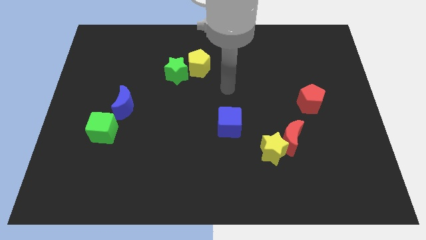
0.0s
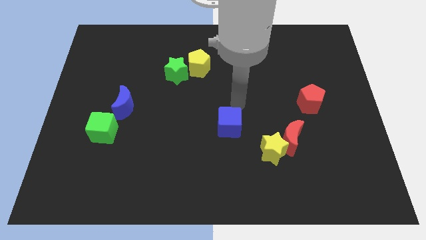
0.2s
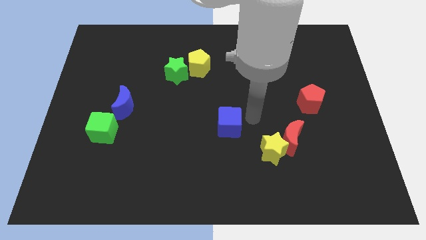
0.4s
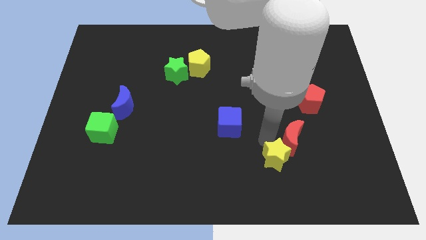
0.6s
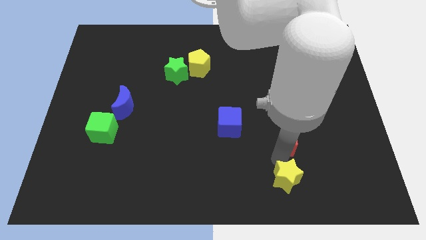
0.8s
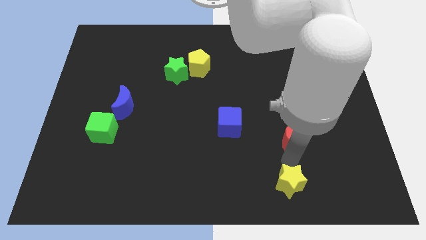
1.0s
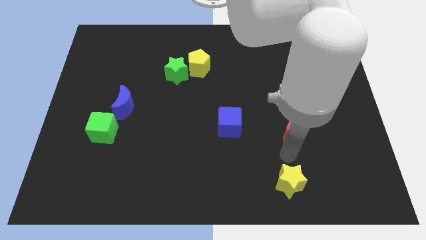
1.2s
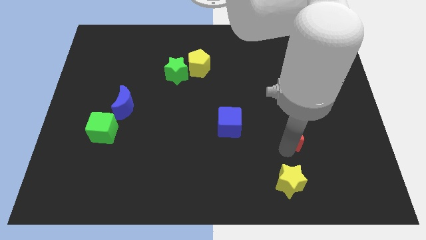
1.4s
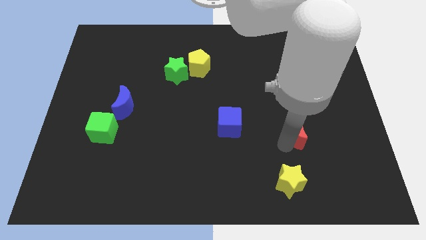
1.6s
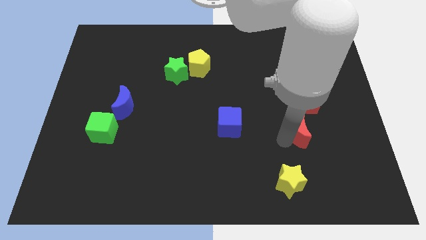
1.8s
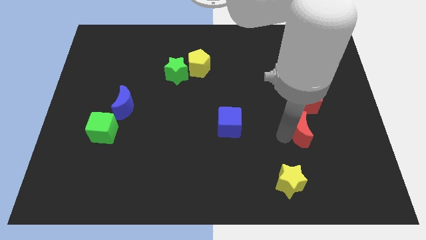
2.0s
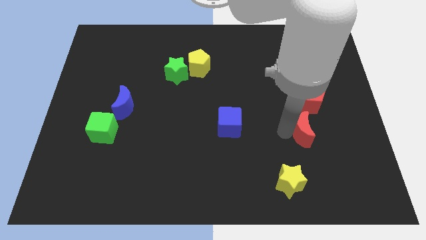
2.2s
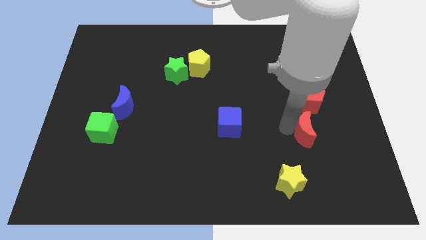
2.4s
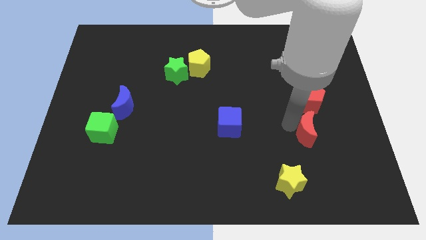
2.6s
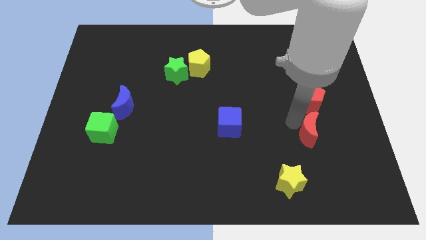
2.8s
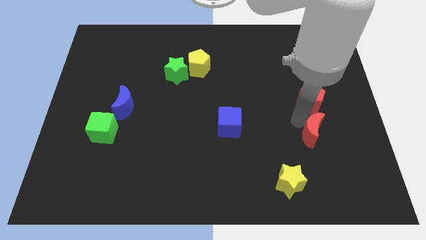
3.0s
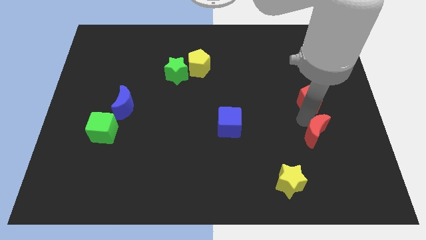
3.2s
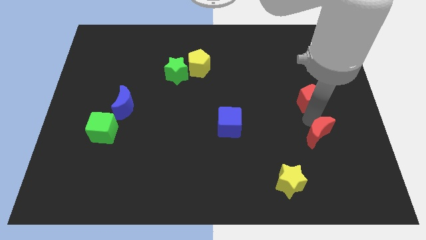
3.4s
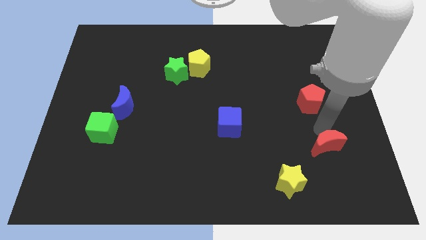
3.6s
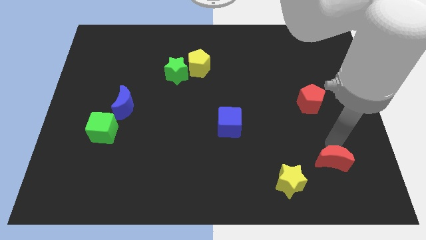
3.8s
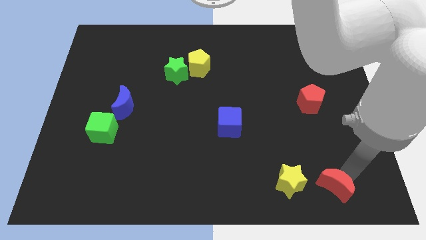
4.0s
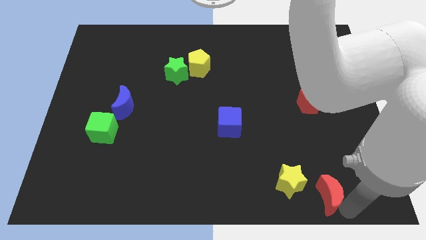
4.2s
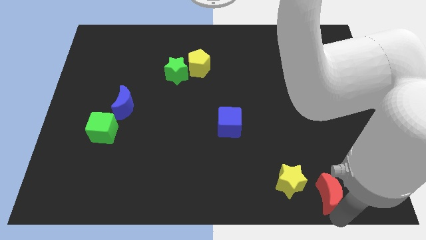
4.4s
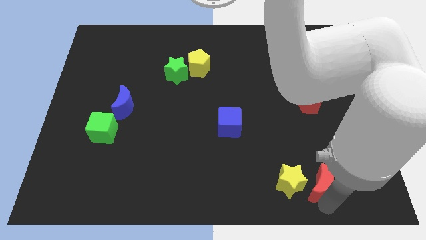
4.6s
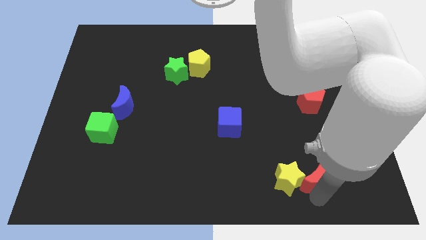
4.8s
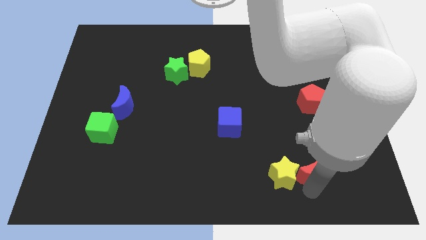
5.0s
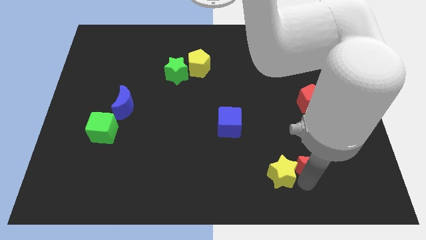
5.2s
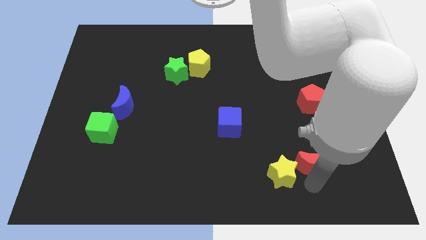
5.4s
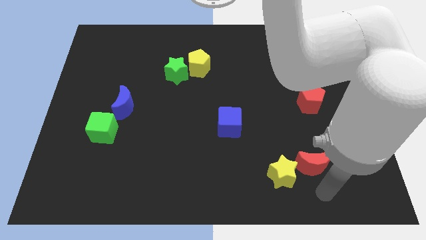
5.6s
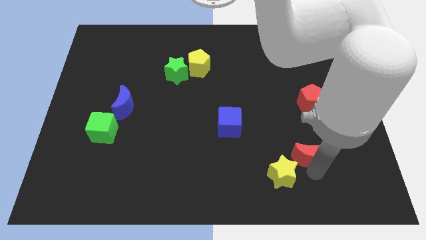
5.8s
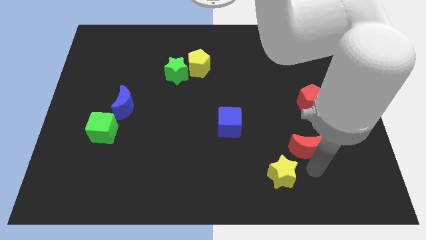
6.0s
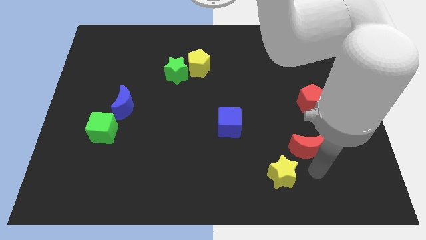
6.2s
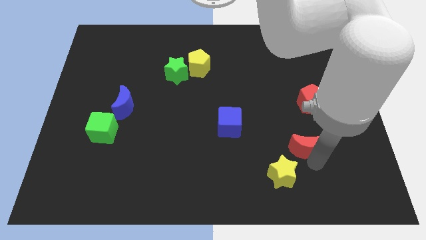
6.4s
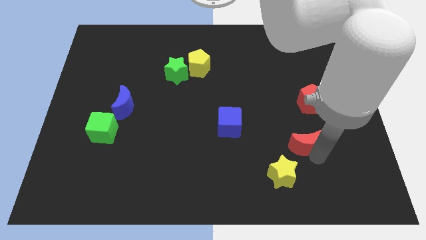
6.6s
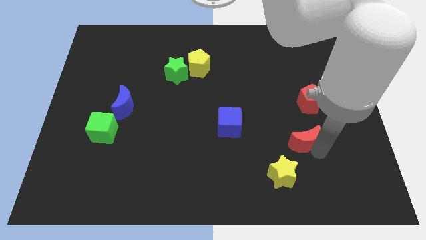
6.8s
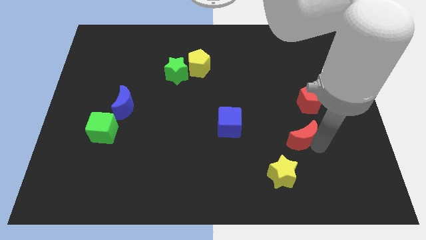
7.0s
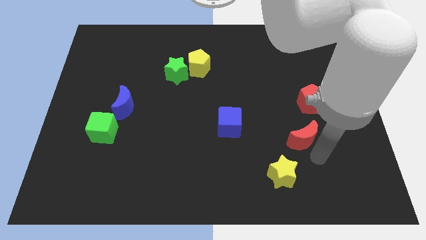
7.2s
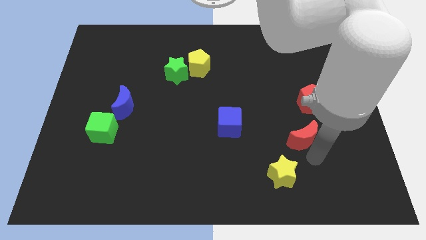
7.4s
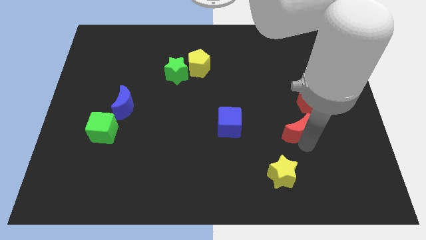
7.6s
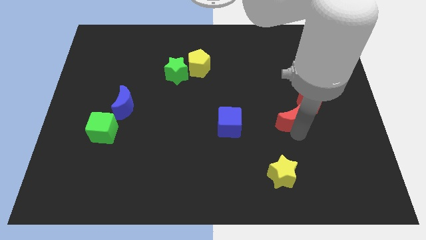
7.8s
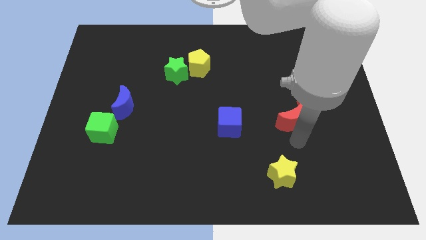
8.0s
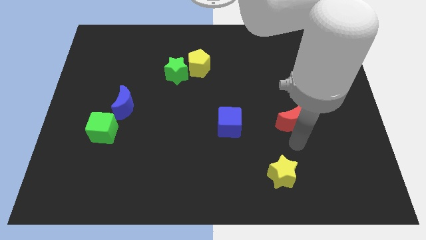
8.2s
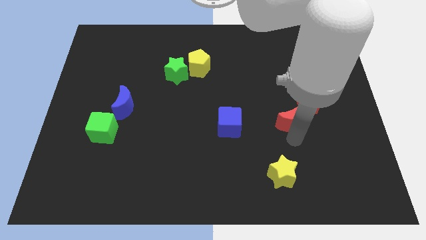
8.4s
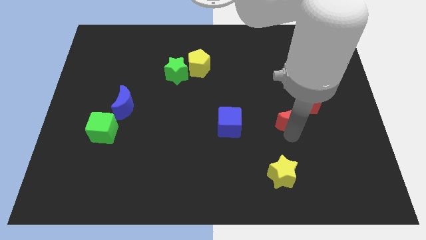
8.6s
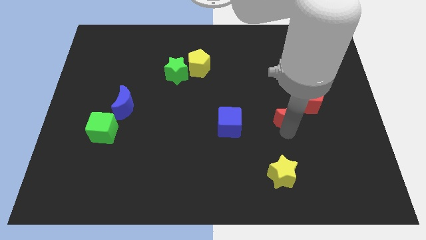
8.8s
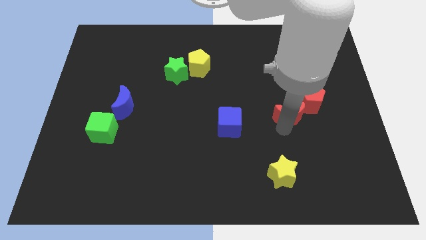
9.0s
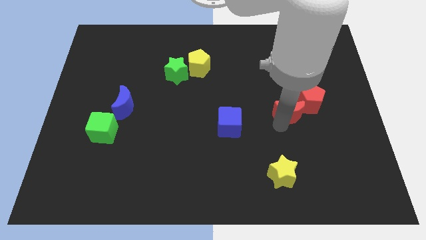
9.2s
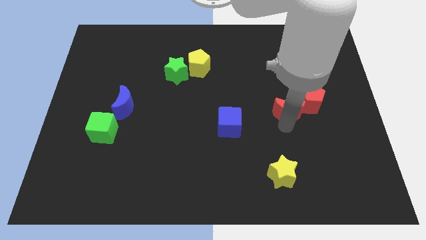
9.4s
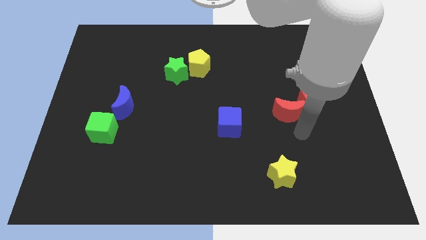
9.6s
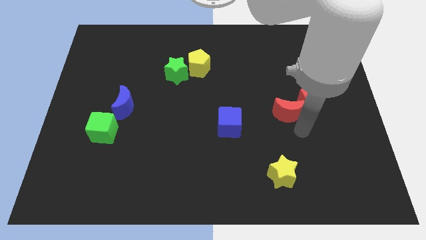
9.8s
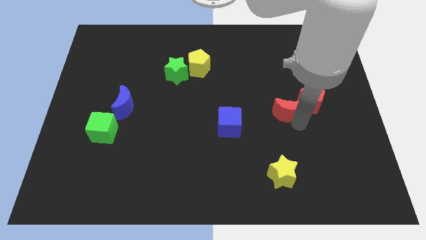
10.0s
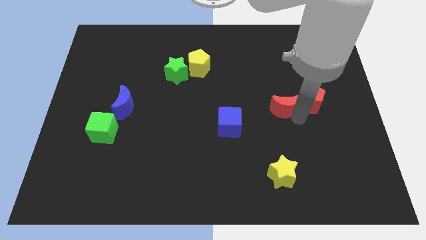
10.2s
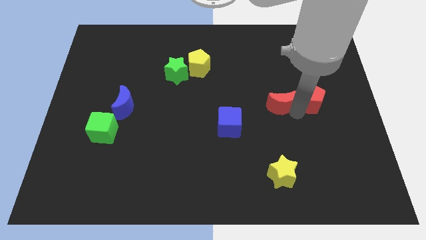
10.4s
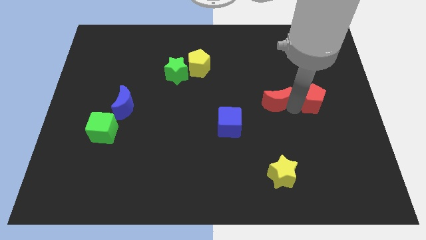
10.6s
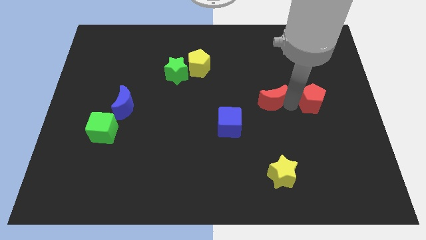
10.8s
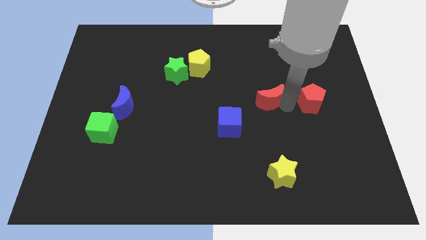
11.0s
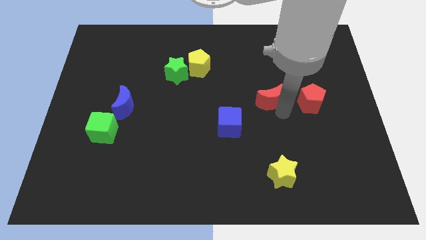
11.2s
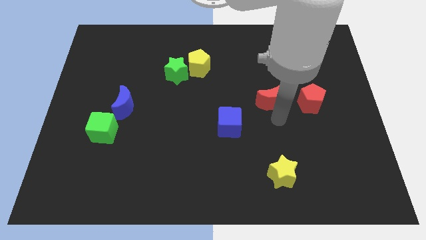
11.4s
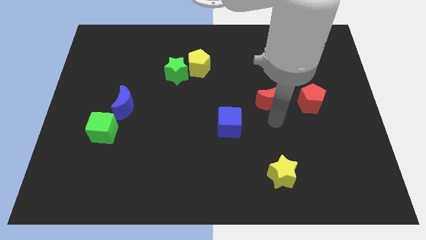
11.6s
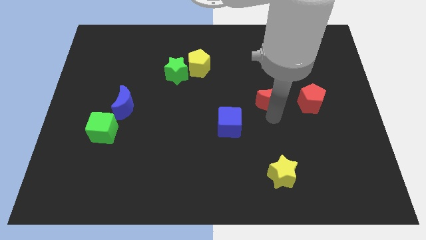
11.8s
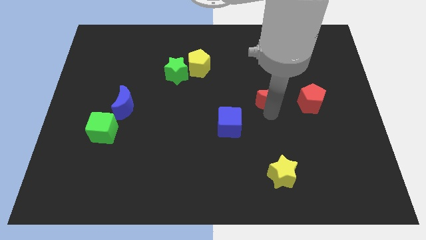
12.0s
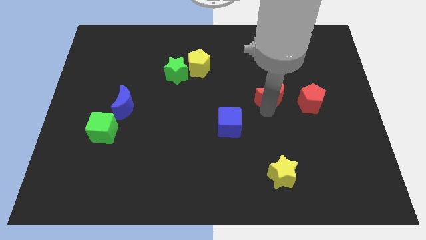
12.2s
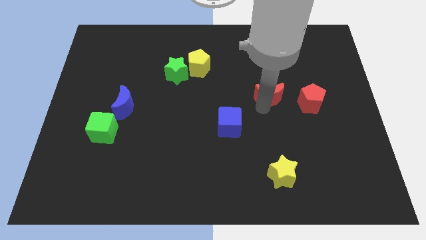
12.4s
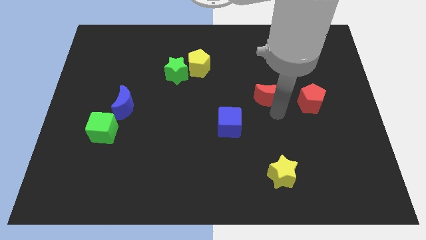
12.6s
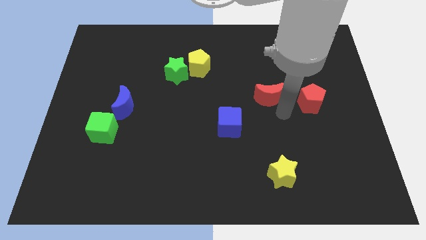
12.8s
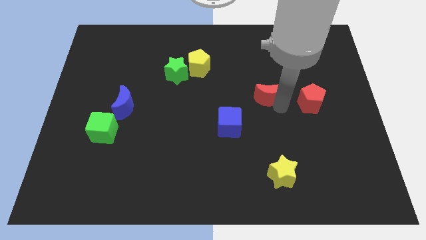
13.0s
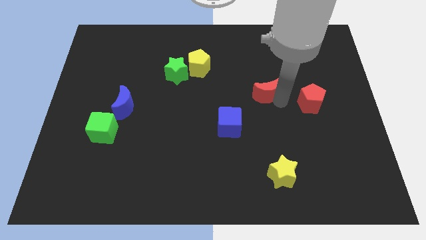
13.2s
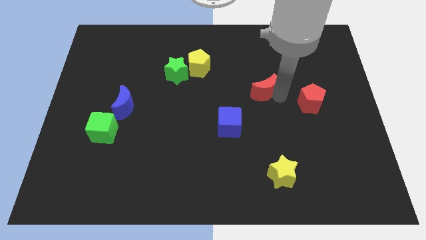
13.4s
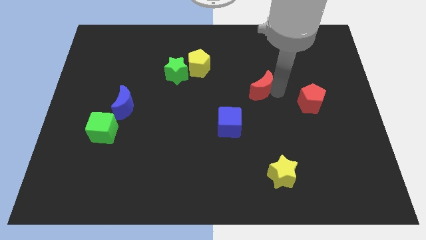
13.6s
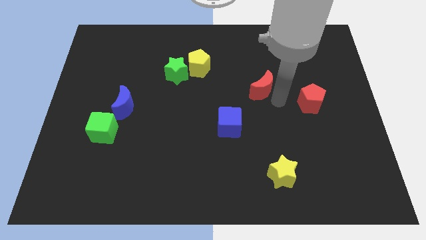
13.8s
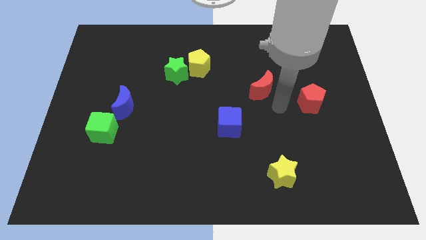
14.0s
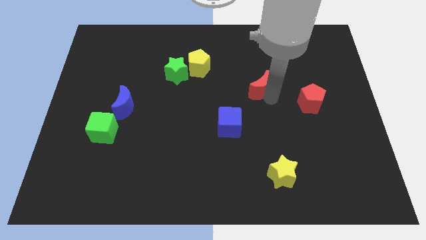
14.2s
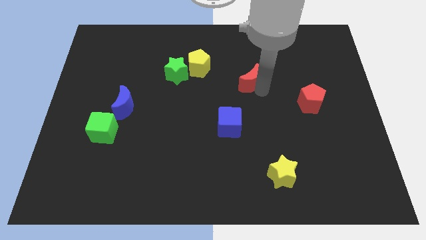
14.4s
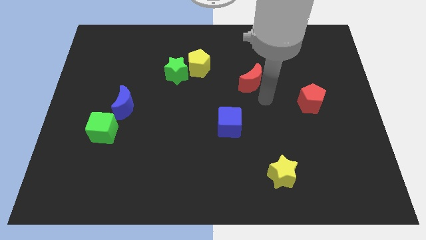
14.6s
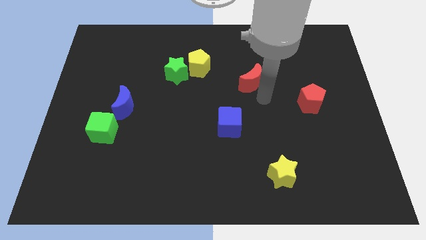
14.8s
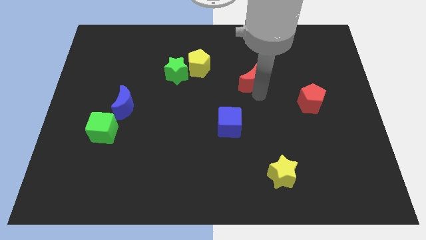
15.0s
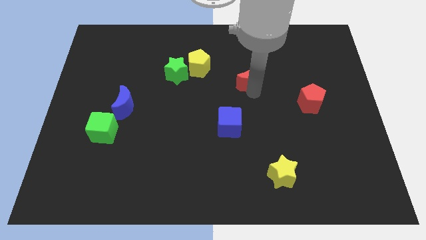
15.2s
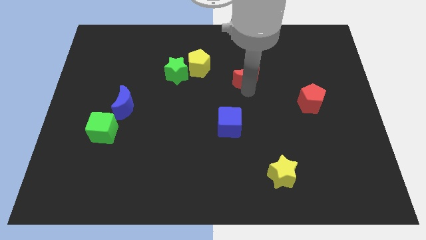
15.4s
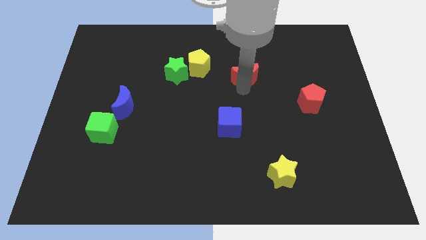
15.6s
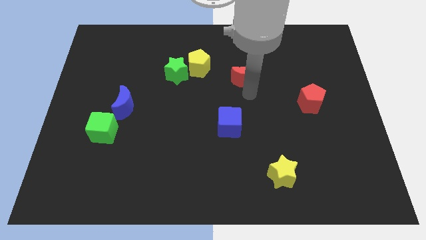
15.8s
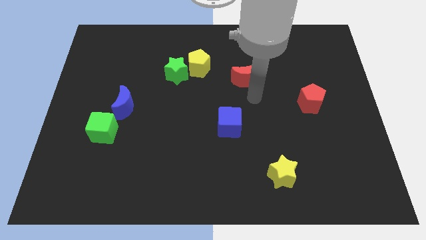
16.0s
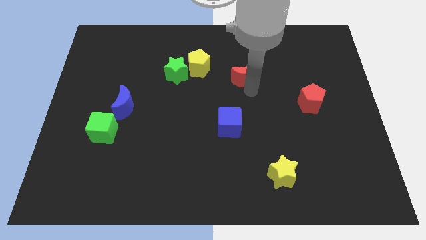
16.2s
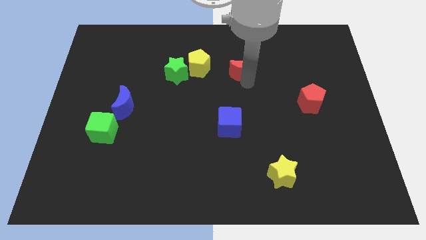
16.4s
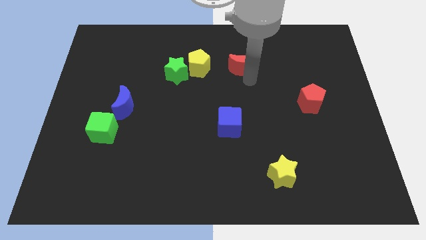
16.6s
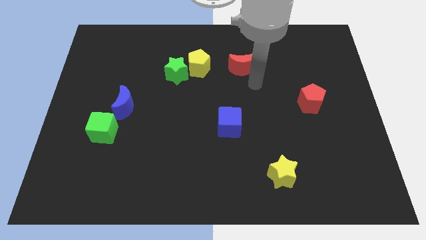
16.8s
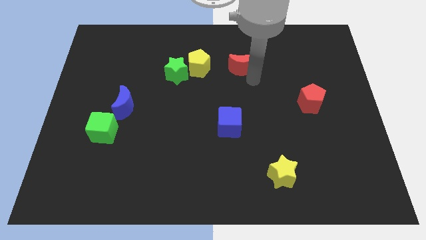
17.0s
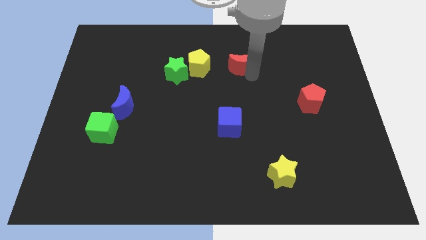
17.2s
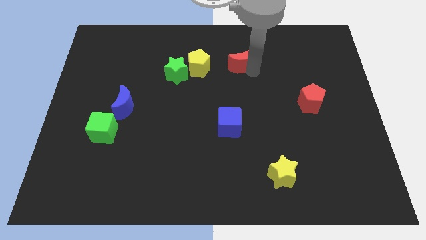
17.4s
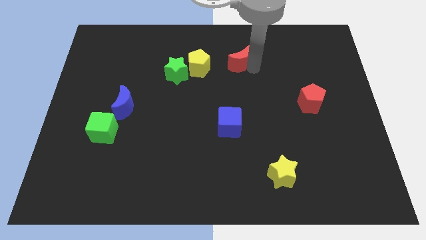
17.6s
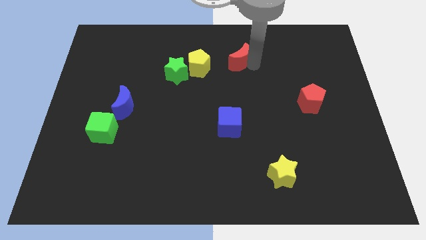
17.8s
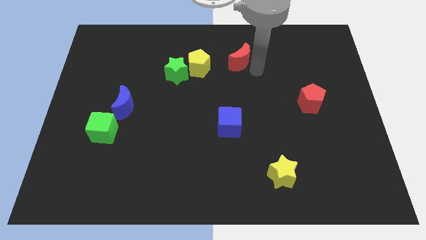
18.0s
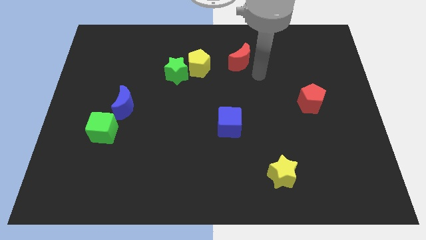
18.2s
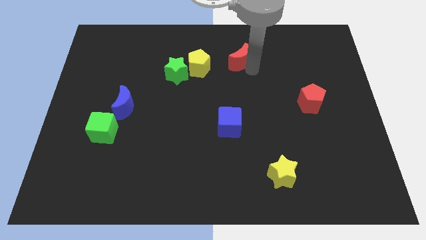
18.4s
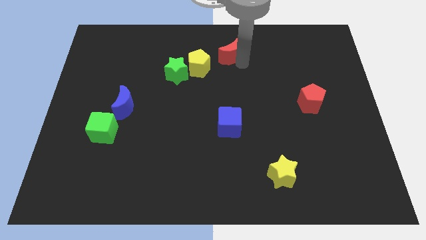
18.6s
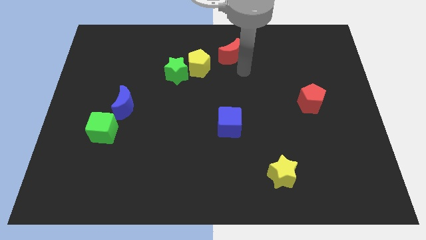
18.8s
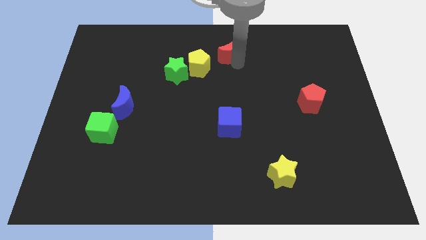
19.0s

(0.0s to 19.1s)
slide the red moon to the towards your base
